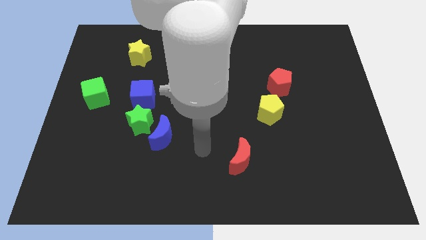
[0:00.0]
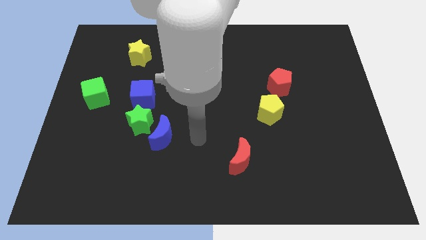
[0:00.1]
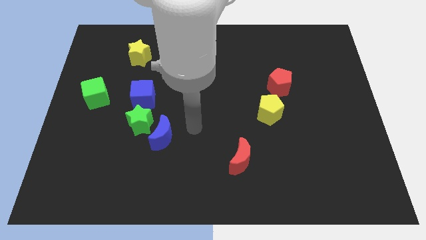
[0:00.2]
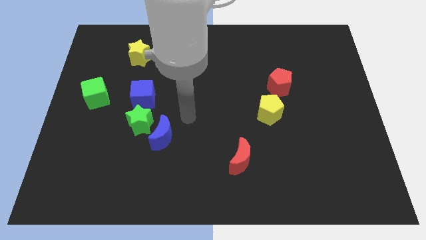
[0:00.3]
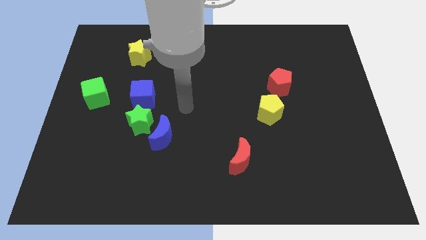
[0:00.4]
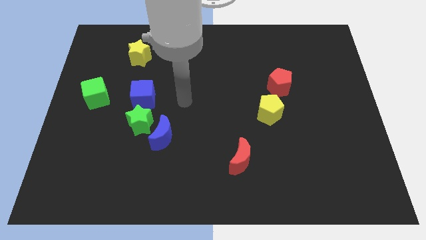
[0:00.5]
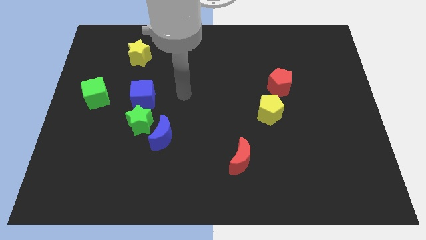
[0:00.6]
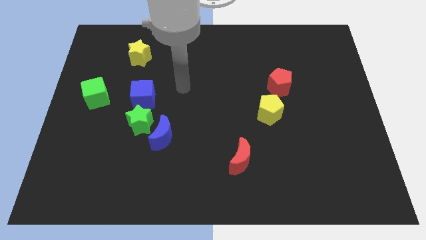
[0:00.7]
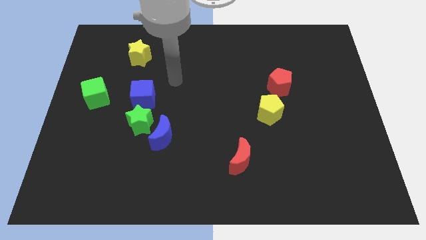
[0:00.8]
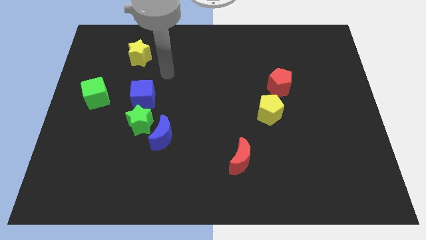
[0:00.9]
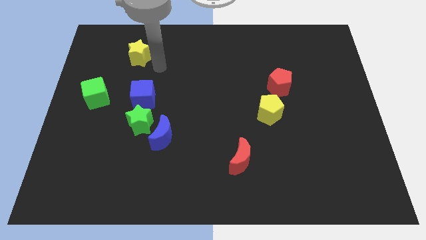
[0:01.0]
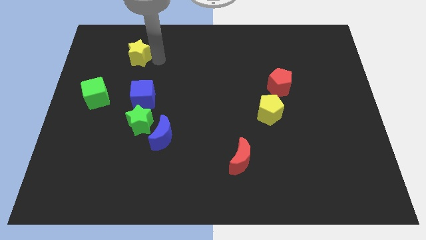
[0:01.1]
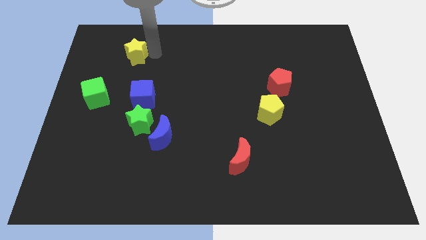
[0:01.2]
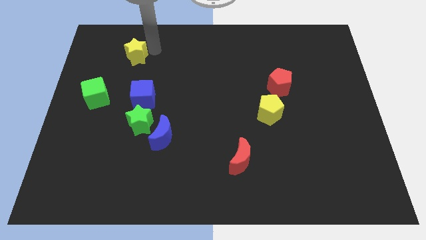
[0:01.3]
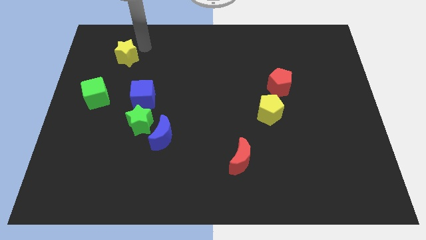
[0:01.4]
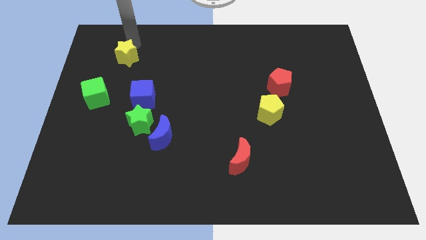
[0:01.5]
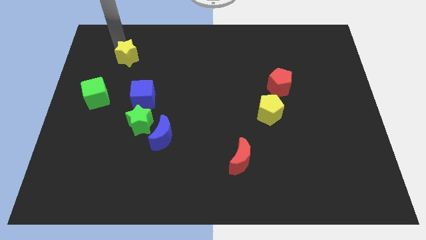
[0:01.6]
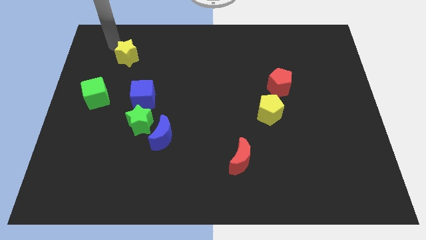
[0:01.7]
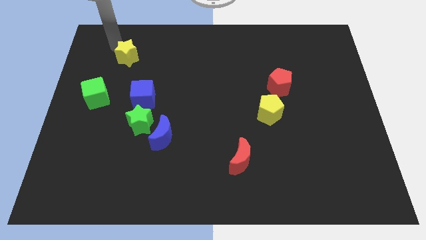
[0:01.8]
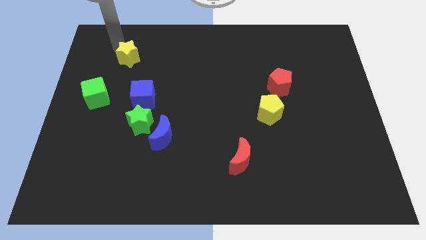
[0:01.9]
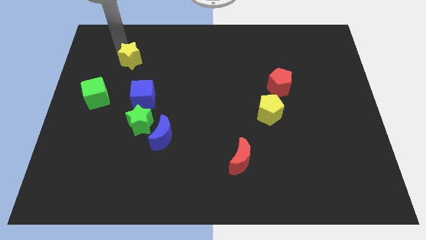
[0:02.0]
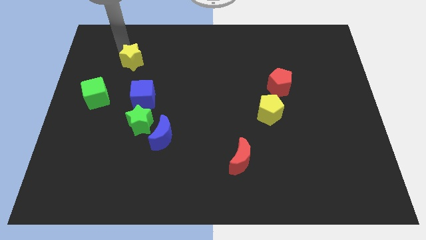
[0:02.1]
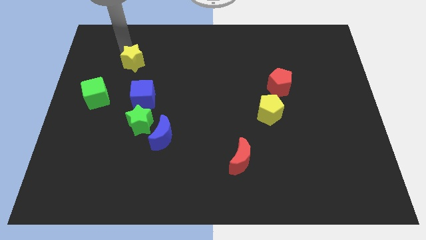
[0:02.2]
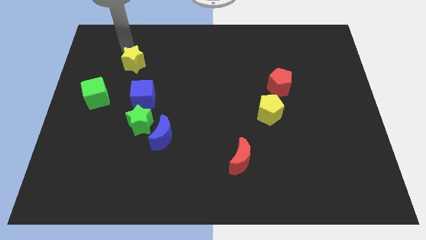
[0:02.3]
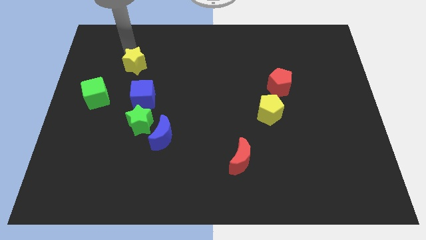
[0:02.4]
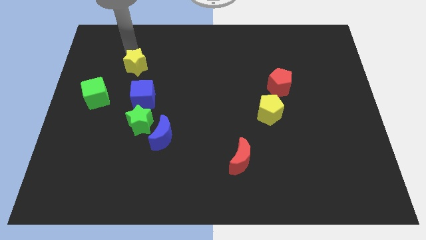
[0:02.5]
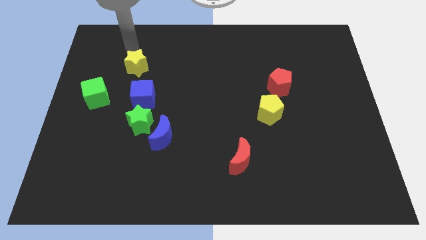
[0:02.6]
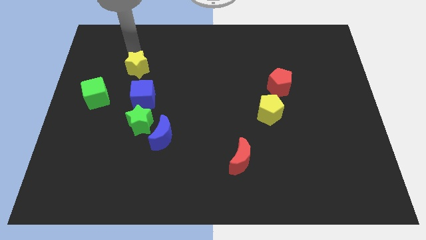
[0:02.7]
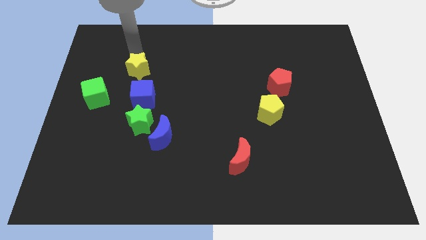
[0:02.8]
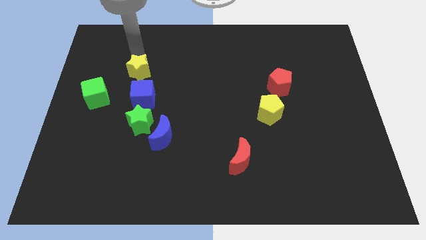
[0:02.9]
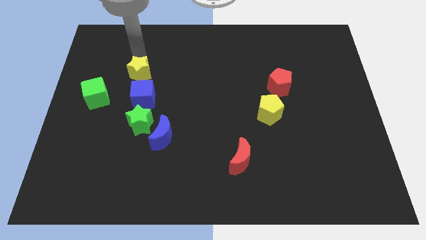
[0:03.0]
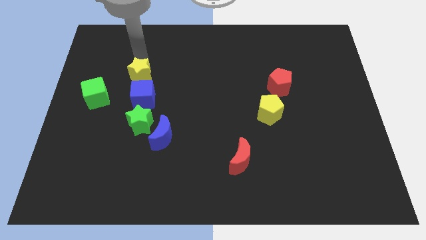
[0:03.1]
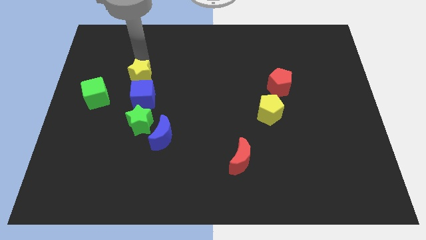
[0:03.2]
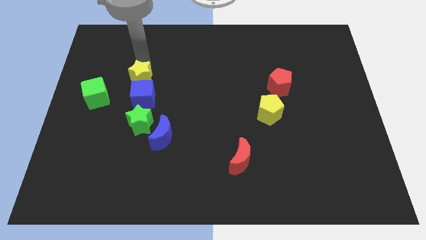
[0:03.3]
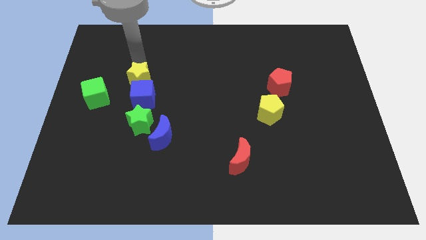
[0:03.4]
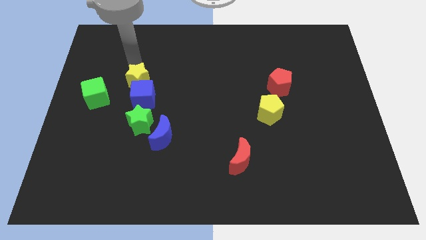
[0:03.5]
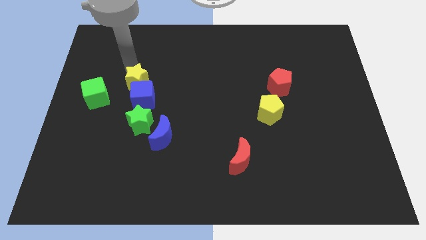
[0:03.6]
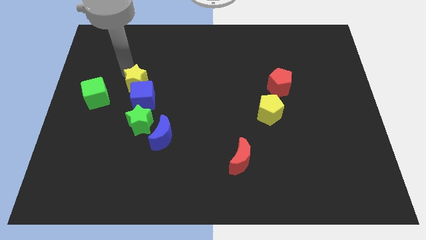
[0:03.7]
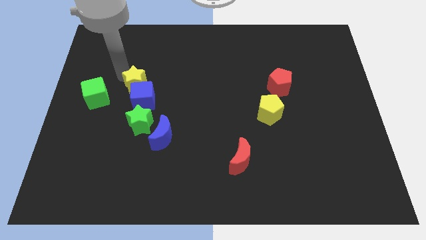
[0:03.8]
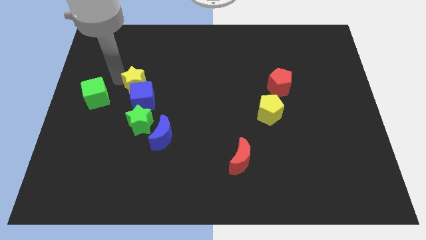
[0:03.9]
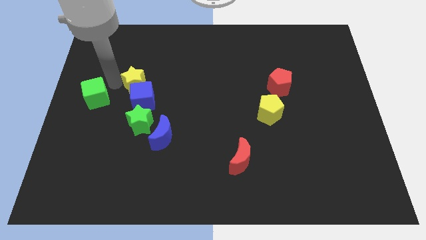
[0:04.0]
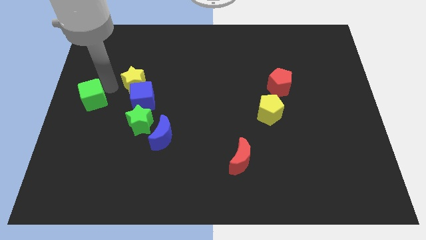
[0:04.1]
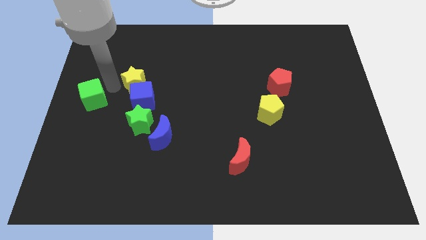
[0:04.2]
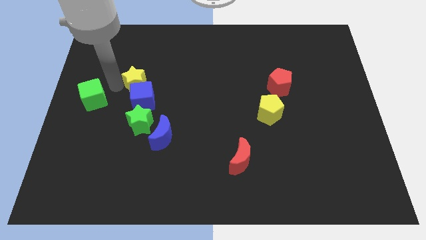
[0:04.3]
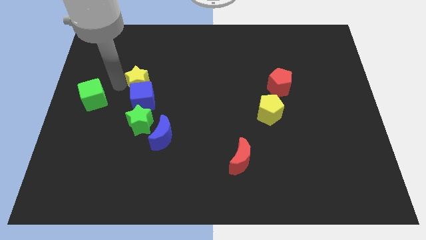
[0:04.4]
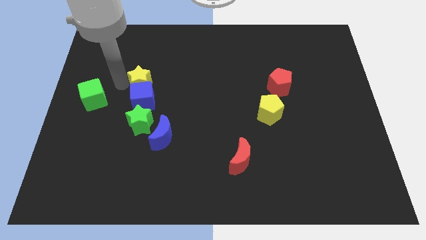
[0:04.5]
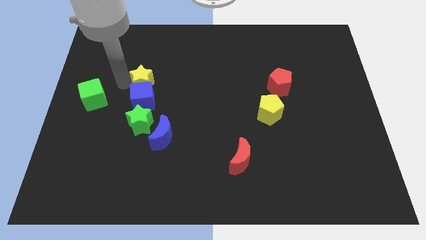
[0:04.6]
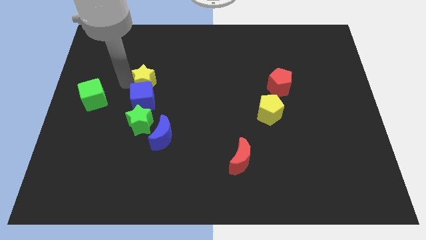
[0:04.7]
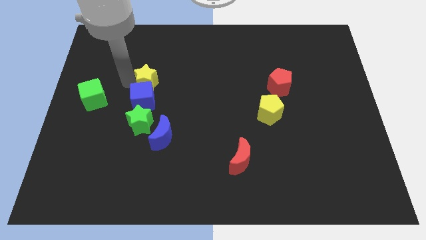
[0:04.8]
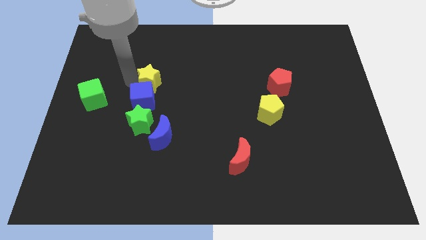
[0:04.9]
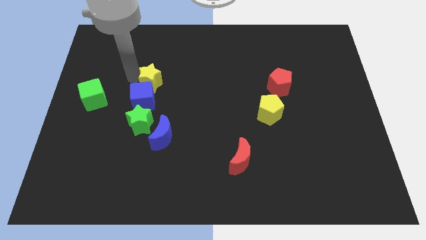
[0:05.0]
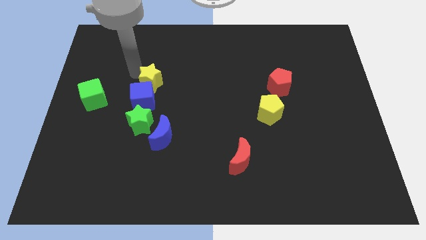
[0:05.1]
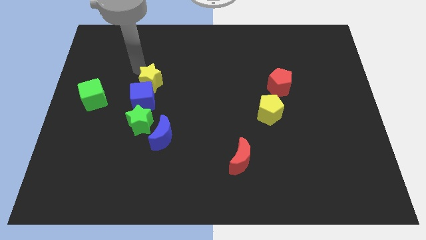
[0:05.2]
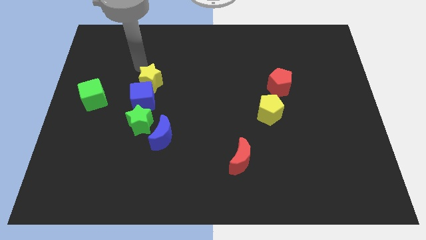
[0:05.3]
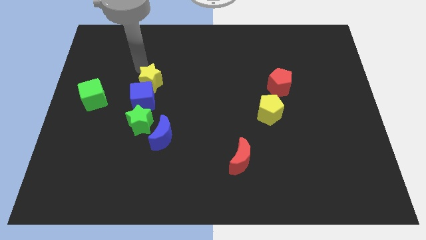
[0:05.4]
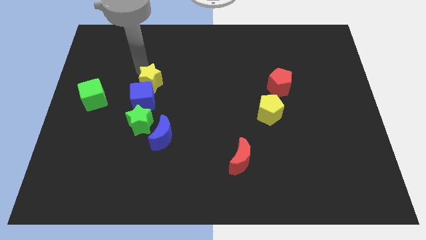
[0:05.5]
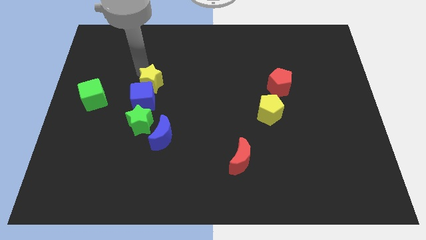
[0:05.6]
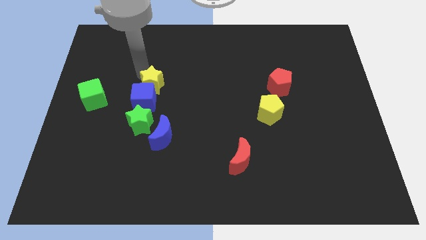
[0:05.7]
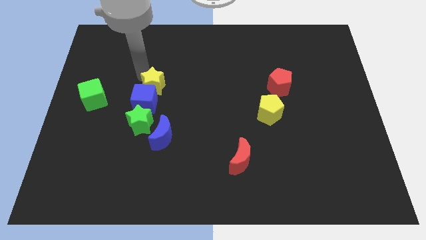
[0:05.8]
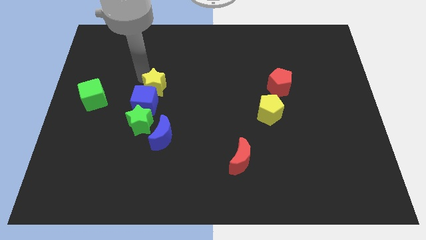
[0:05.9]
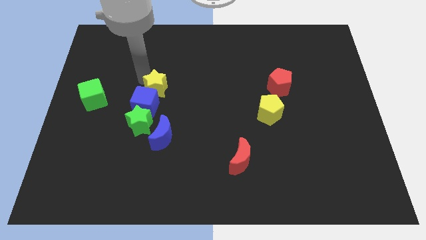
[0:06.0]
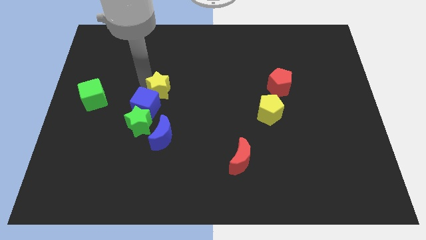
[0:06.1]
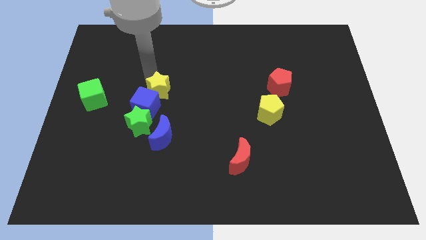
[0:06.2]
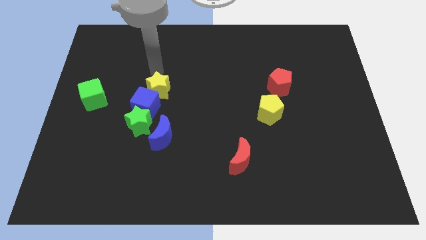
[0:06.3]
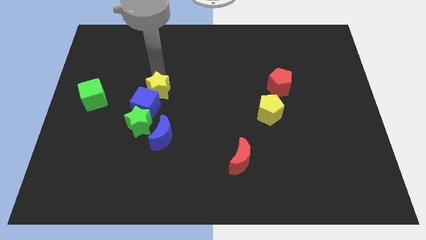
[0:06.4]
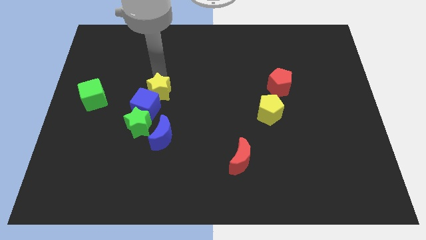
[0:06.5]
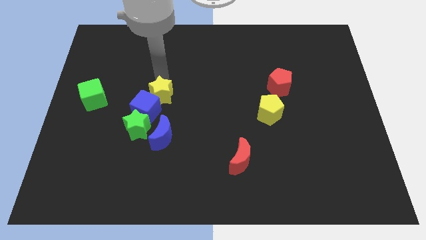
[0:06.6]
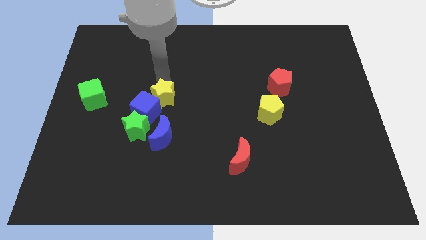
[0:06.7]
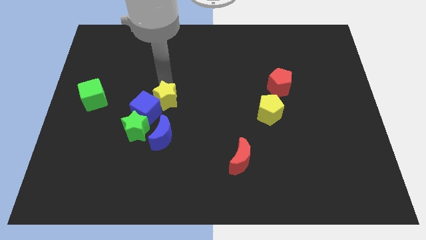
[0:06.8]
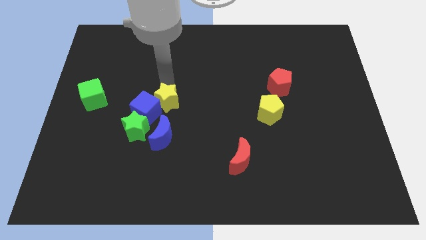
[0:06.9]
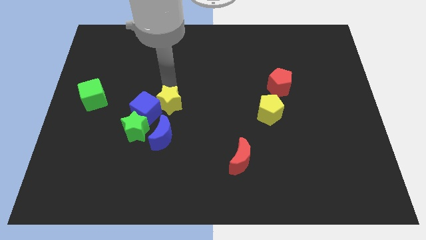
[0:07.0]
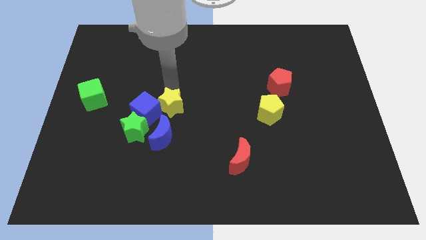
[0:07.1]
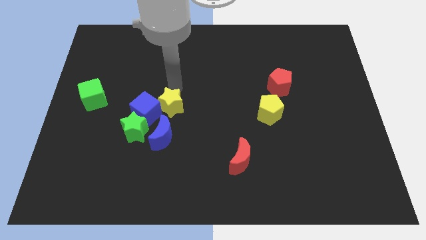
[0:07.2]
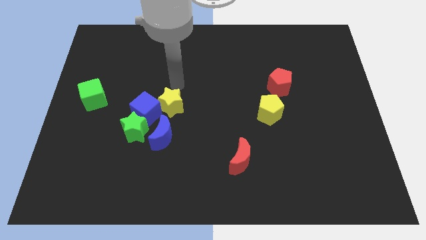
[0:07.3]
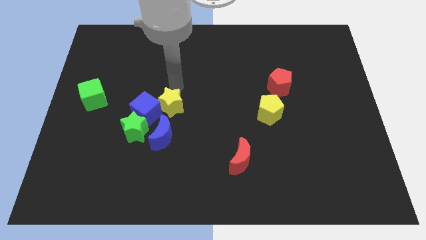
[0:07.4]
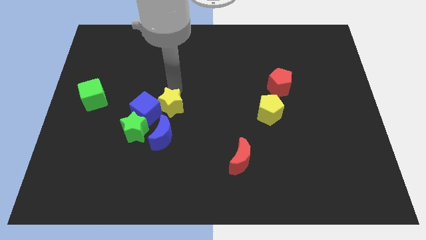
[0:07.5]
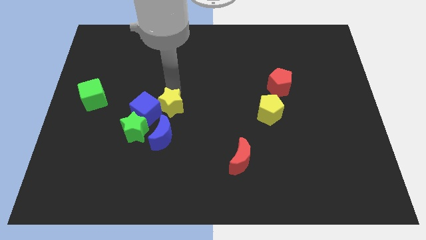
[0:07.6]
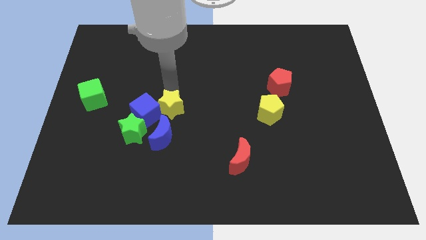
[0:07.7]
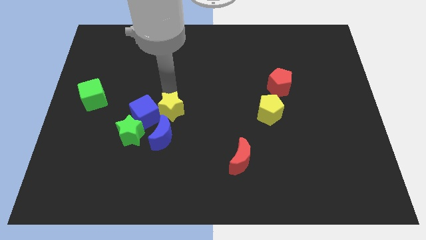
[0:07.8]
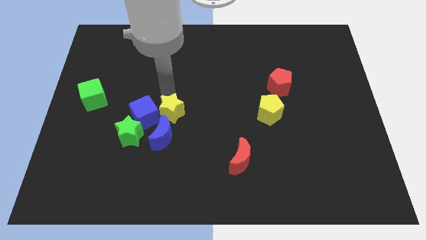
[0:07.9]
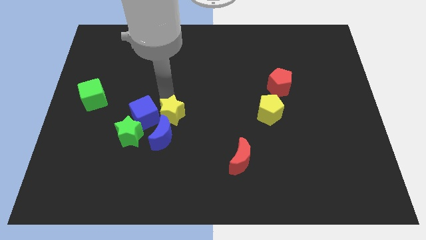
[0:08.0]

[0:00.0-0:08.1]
slide the yellow star to the bottom right side of the blue cube
